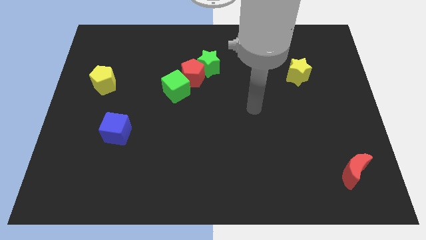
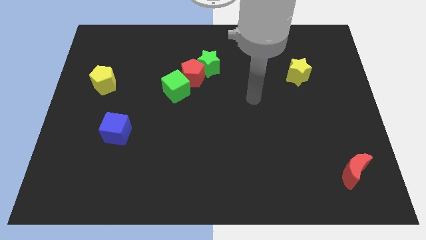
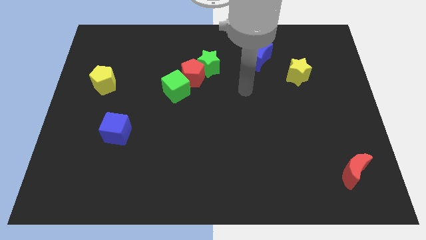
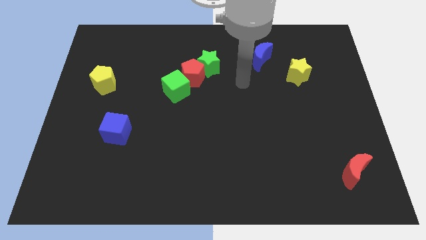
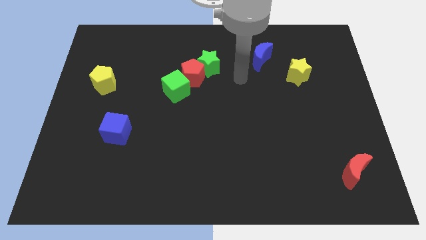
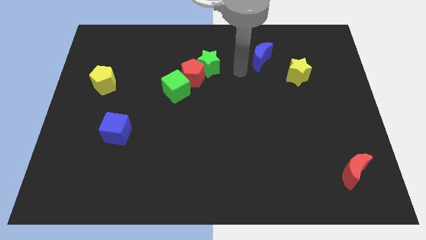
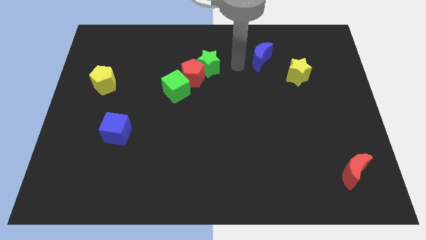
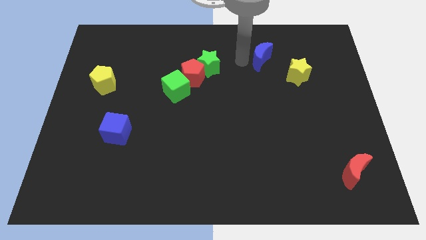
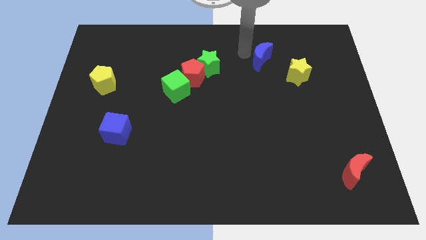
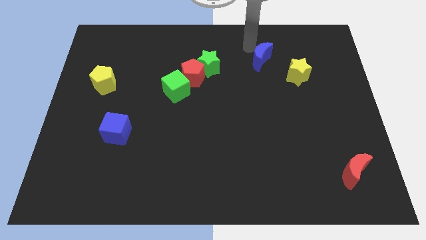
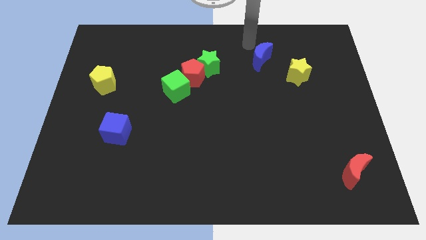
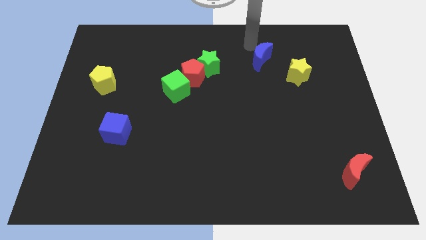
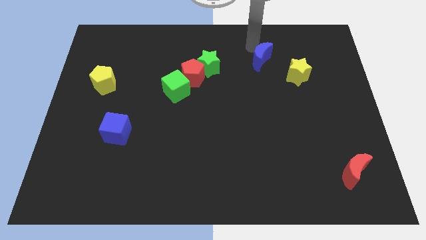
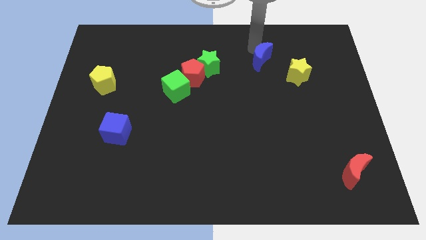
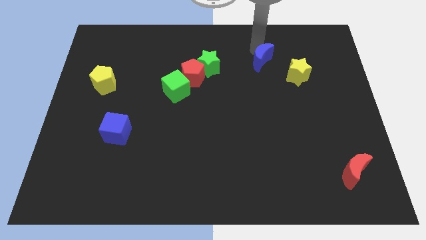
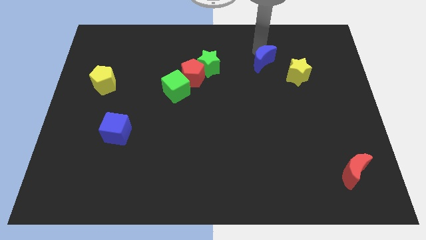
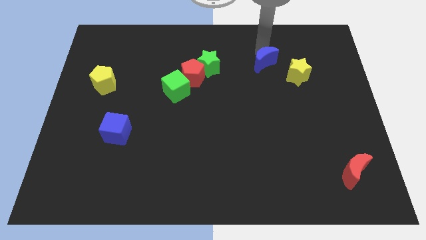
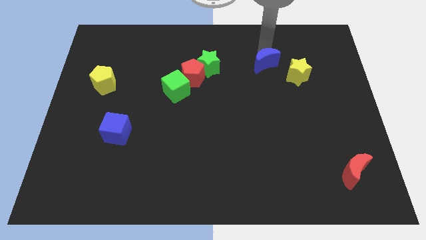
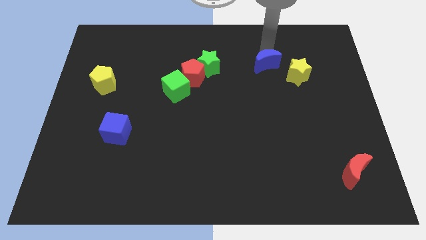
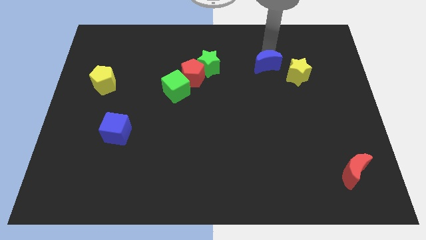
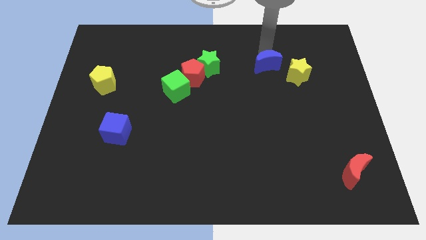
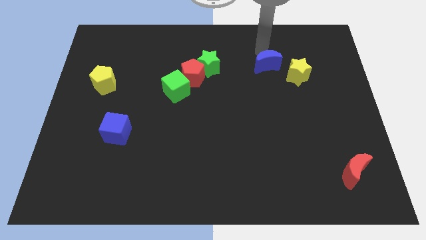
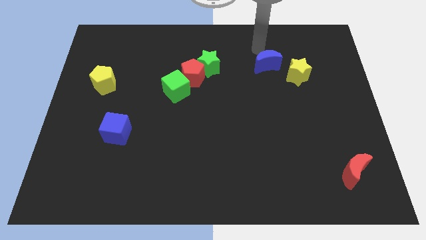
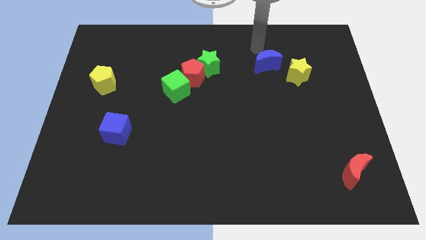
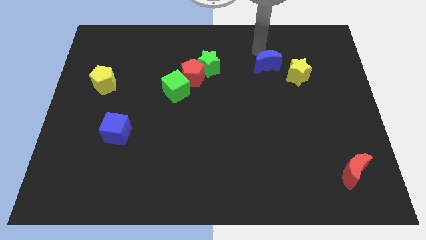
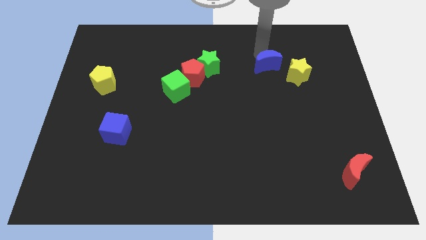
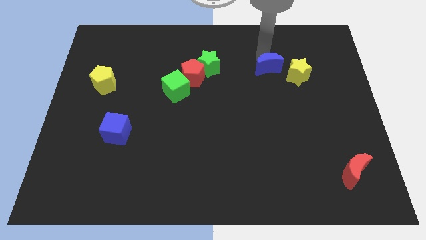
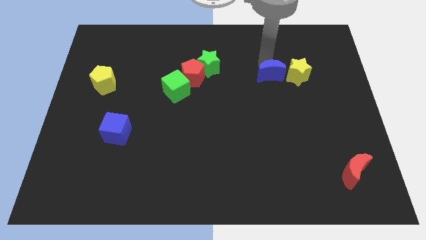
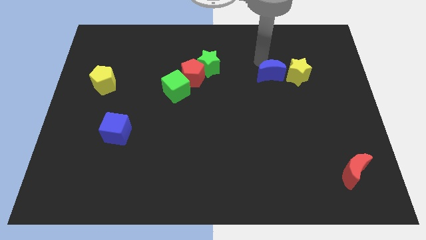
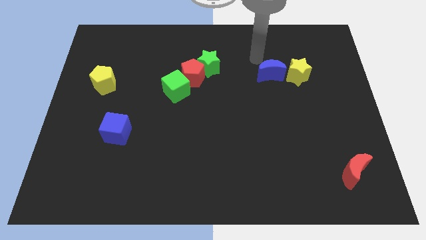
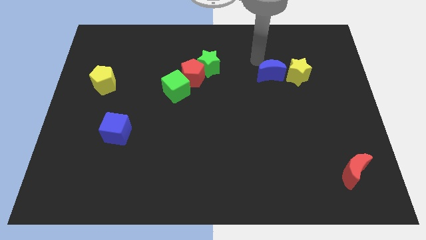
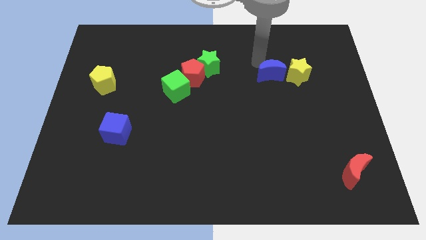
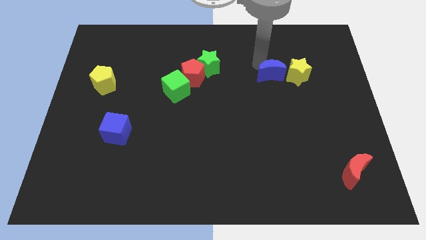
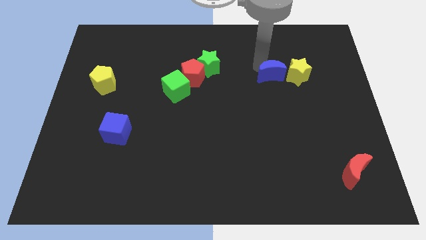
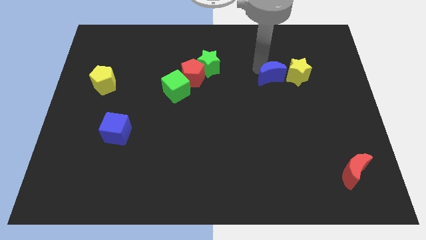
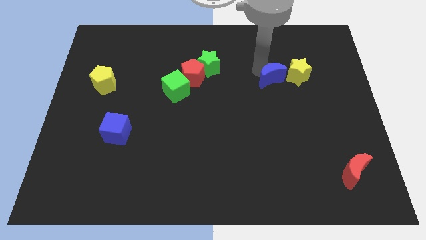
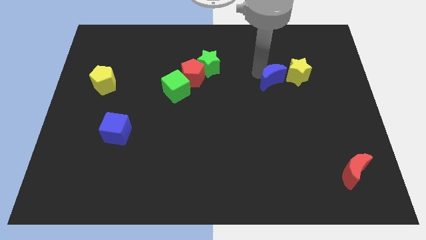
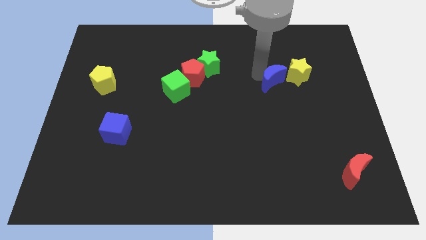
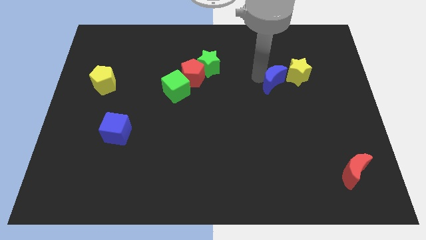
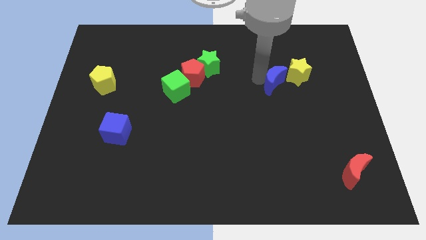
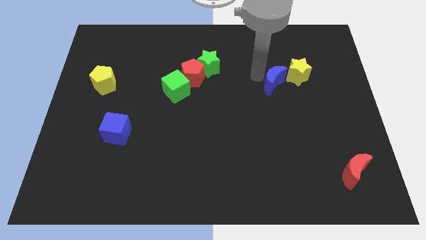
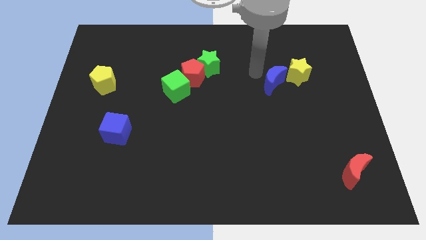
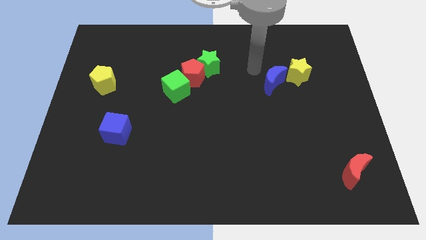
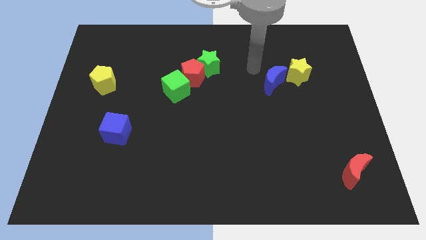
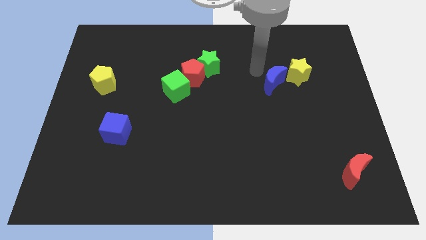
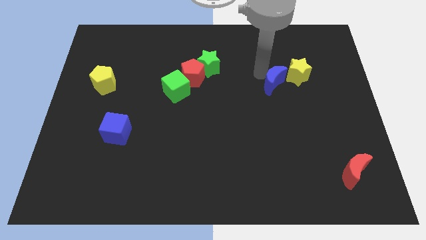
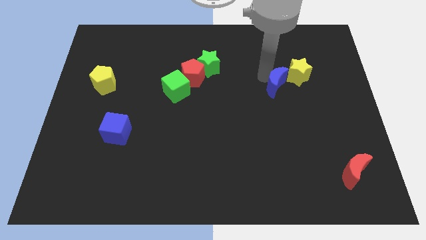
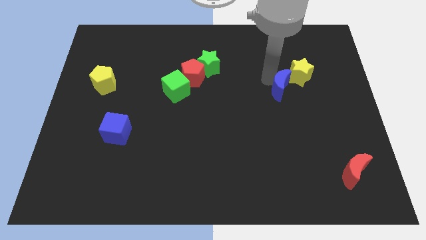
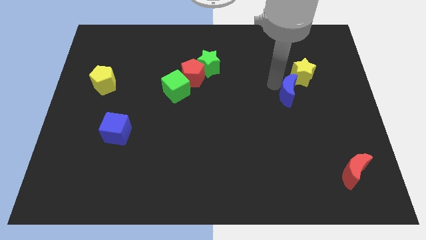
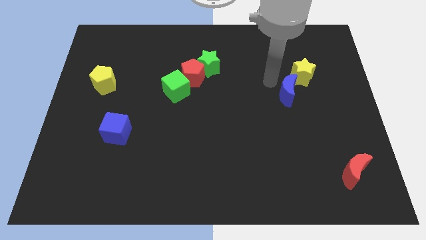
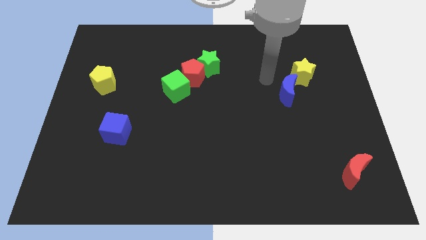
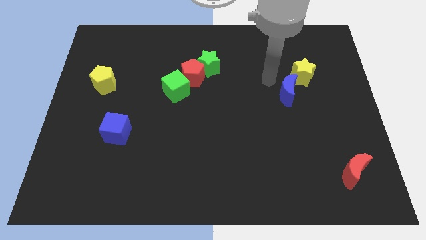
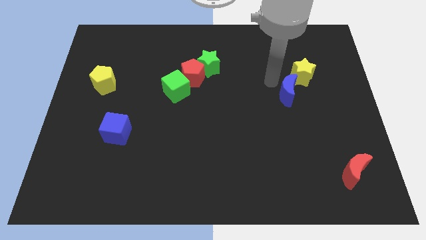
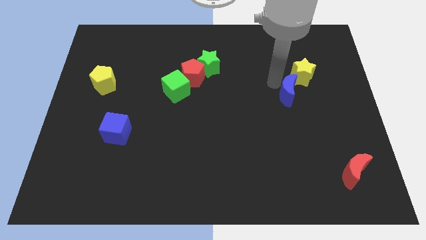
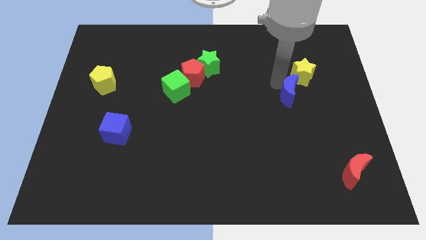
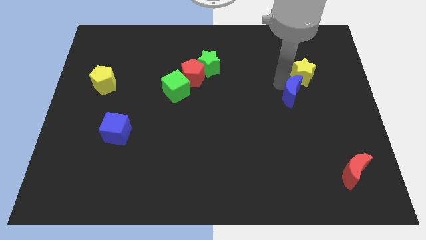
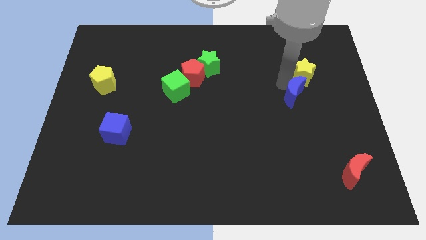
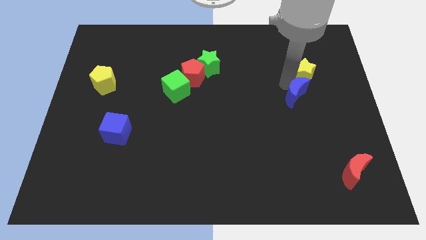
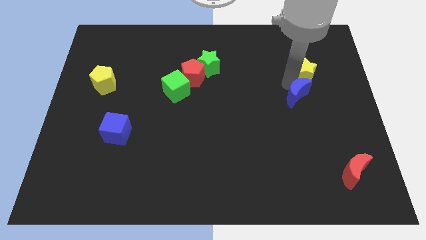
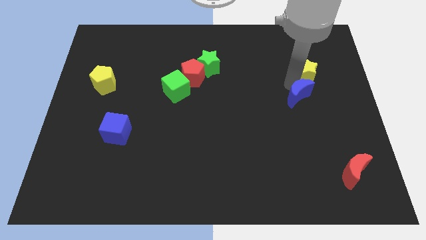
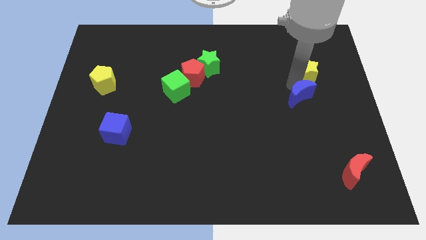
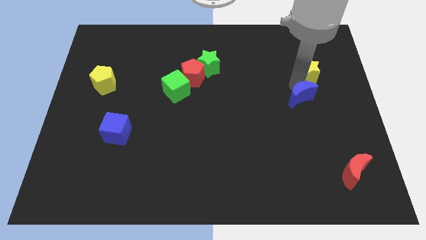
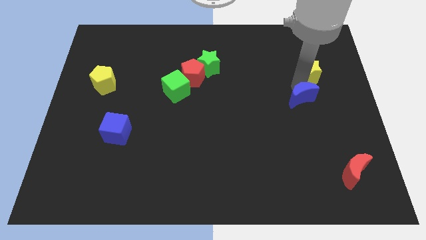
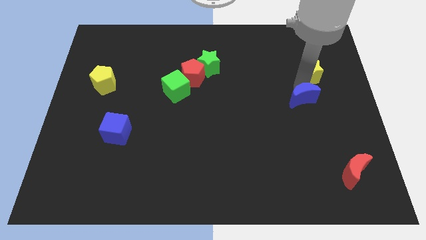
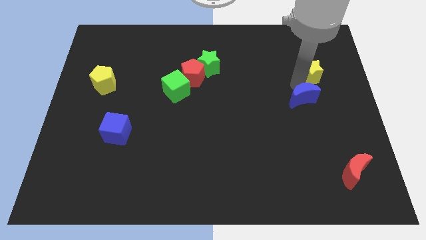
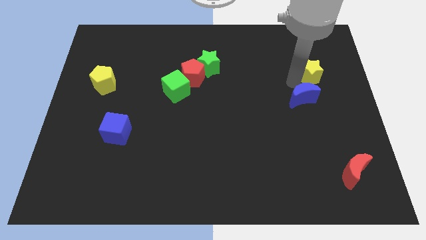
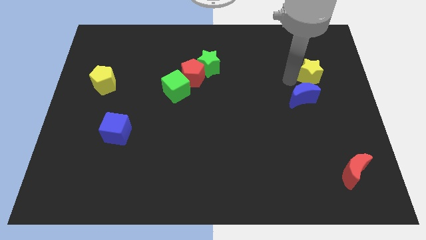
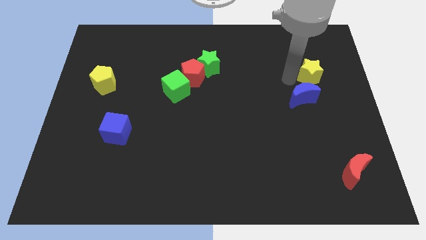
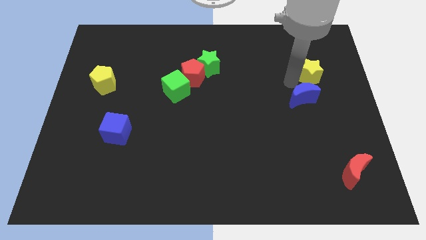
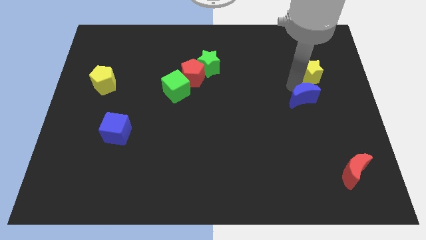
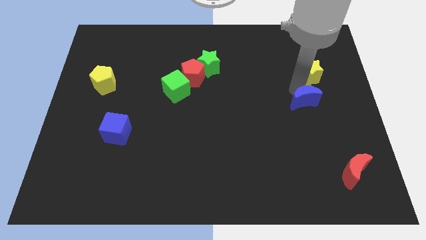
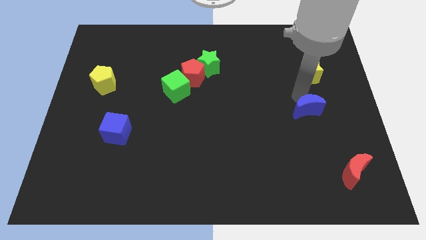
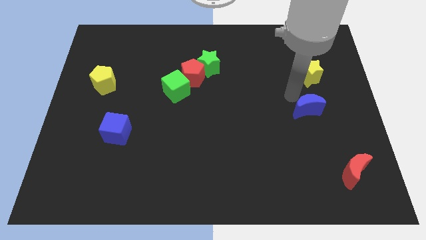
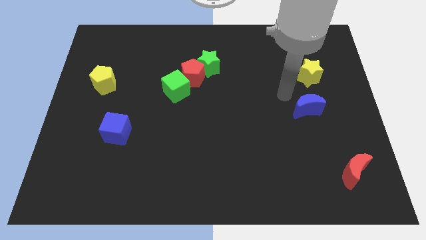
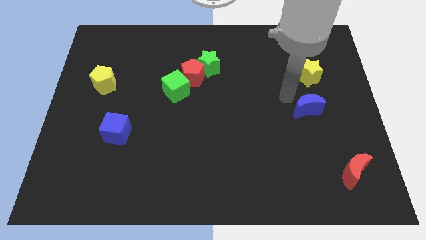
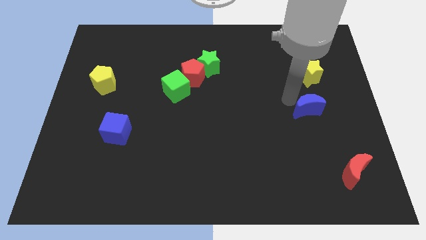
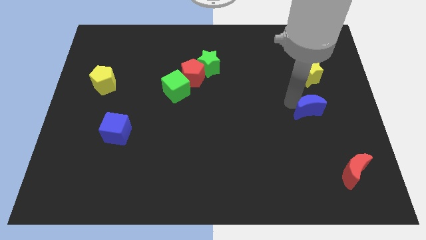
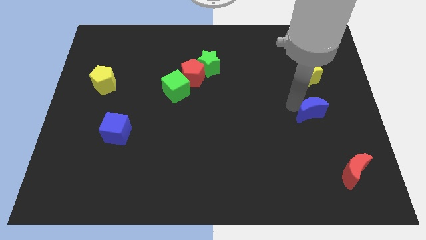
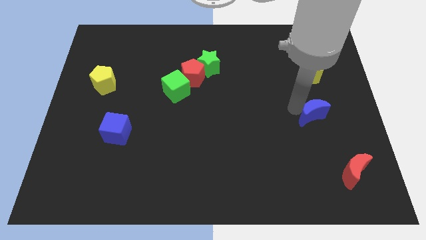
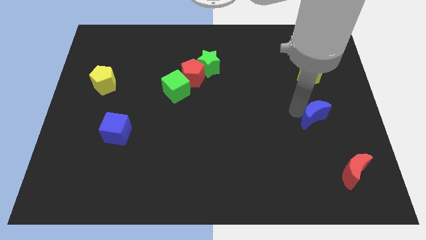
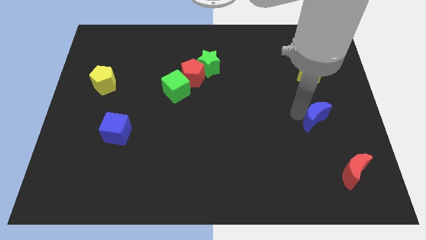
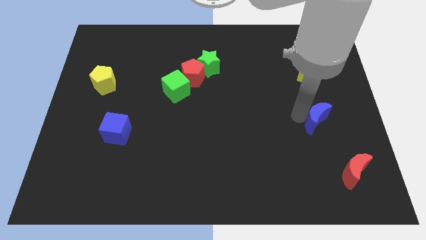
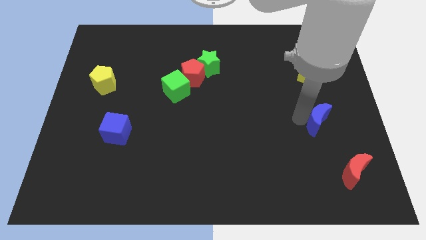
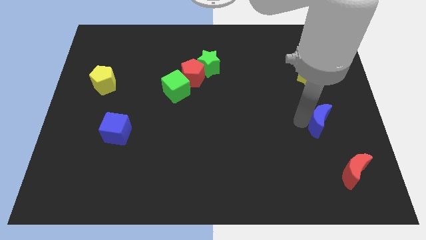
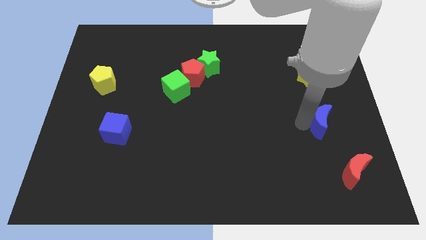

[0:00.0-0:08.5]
put the blue moon to the top side of the red moon
